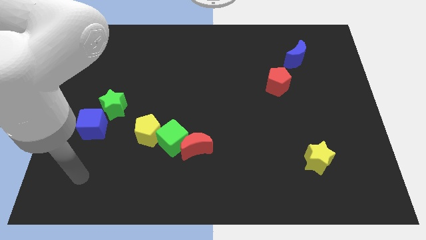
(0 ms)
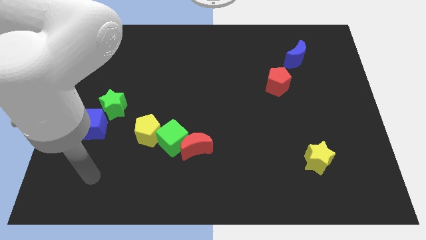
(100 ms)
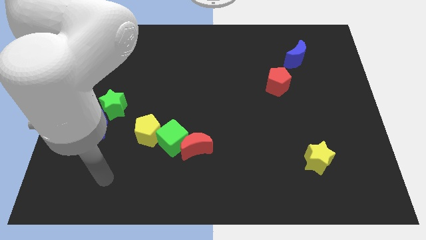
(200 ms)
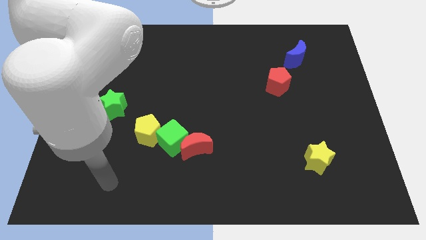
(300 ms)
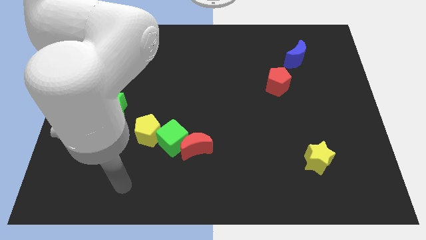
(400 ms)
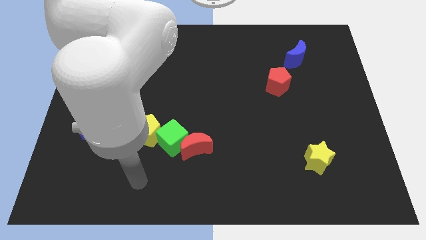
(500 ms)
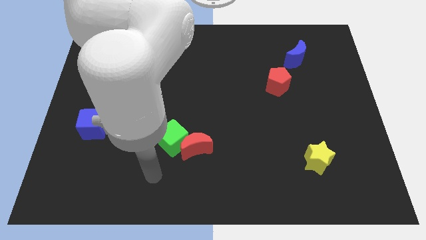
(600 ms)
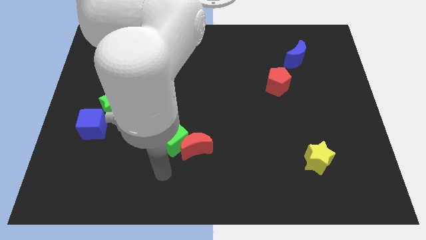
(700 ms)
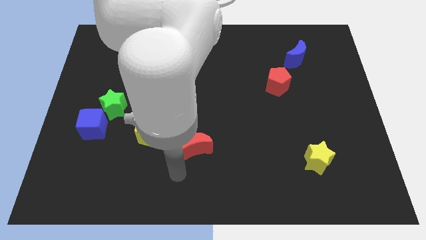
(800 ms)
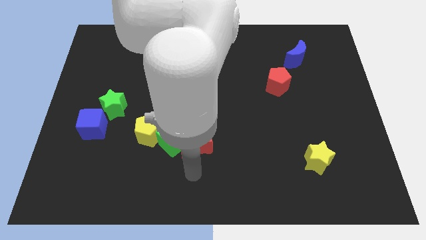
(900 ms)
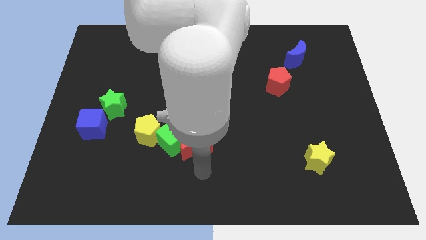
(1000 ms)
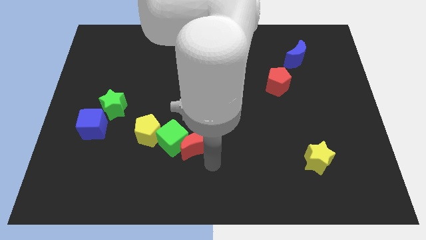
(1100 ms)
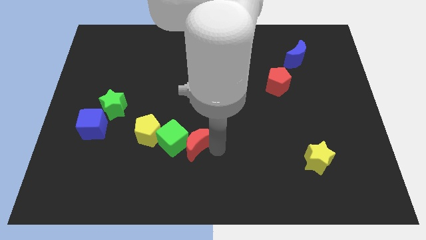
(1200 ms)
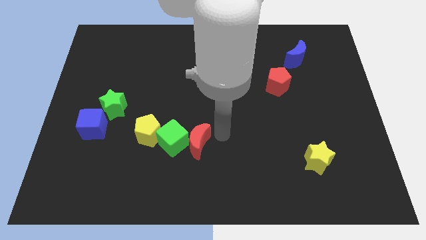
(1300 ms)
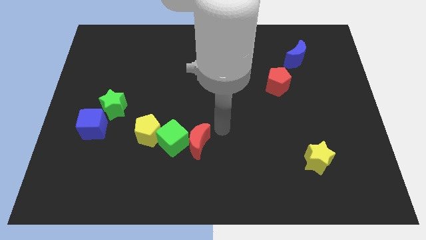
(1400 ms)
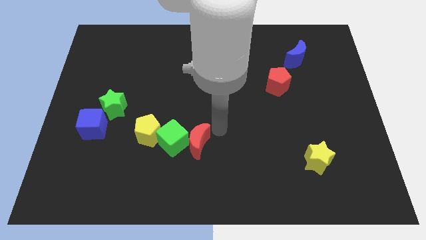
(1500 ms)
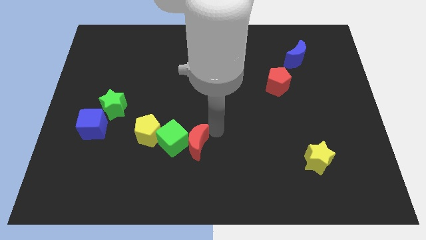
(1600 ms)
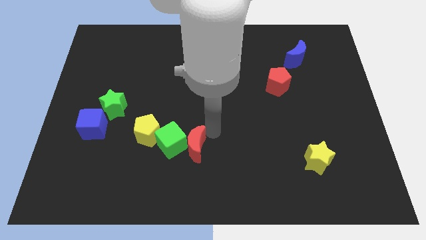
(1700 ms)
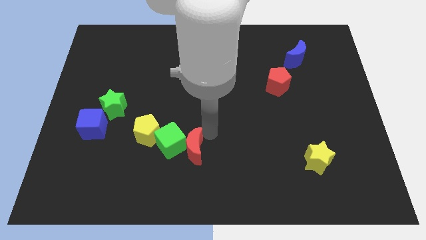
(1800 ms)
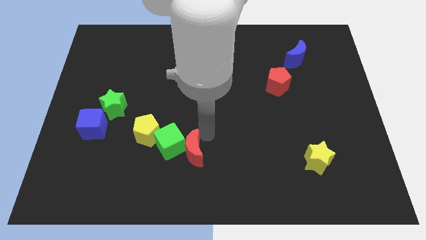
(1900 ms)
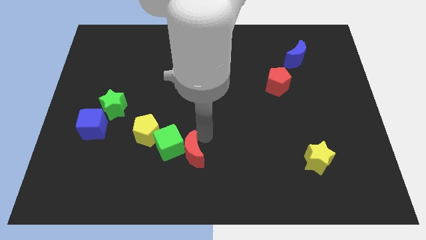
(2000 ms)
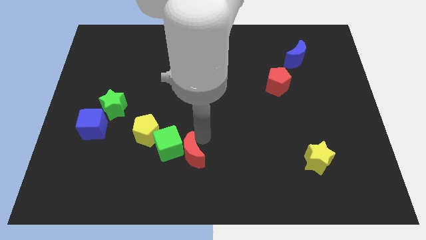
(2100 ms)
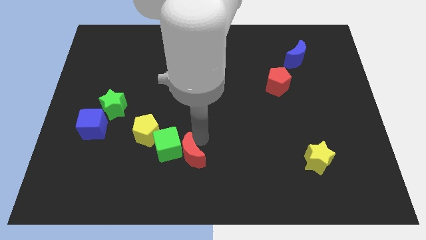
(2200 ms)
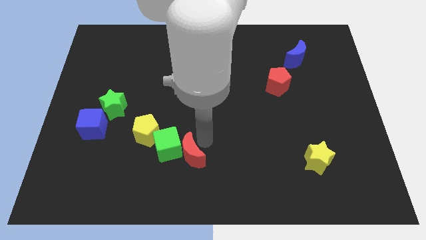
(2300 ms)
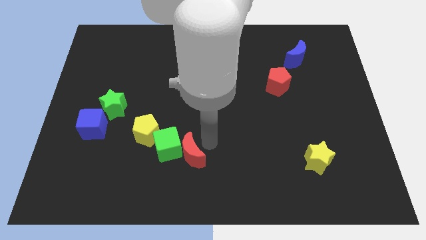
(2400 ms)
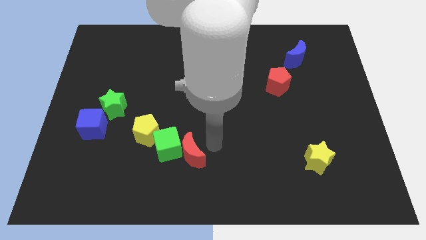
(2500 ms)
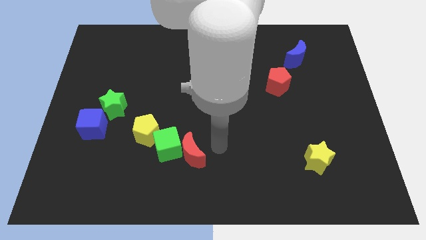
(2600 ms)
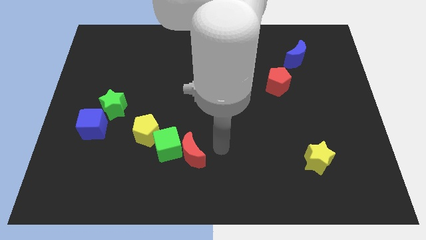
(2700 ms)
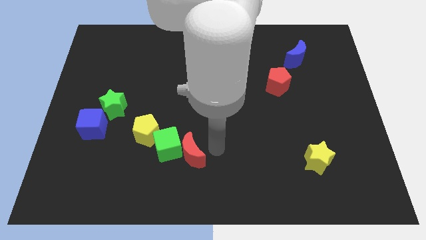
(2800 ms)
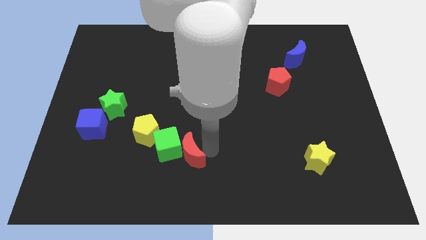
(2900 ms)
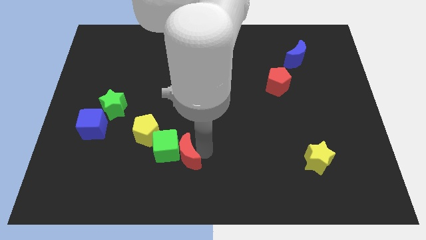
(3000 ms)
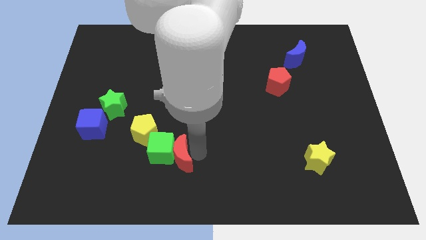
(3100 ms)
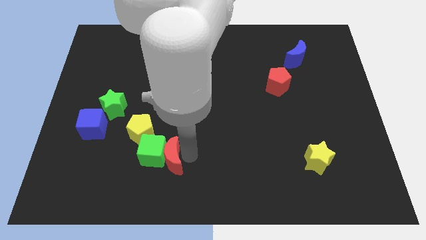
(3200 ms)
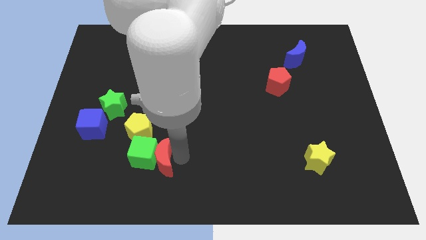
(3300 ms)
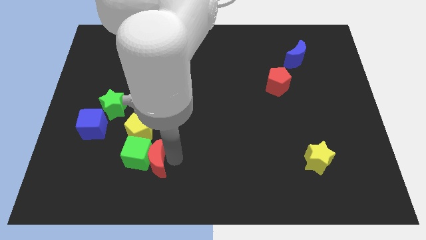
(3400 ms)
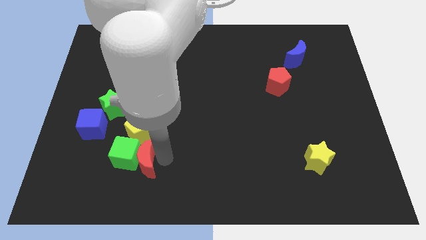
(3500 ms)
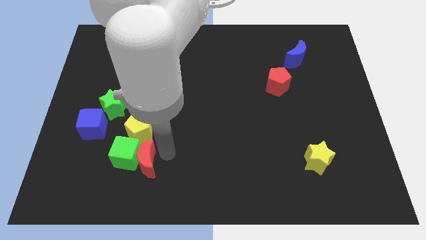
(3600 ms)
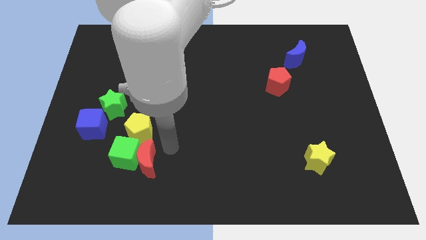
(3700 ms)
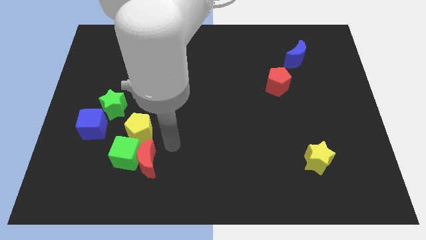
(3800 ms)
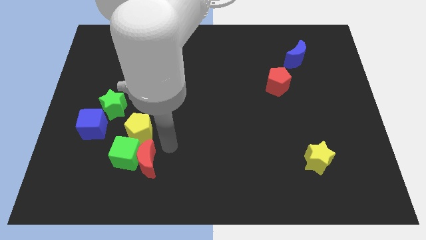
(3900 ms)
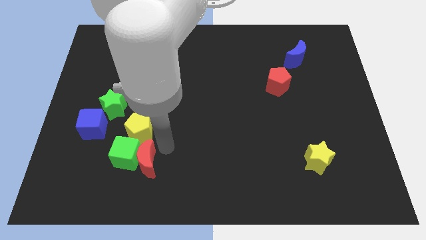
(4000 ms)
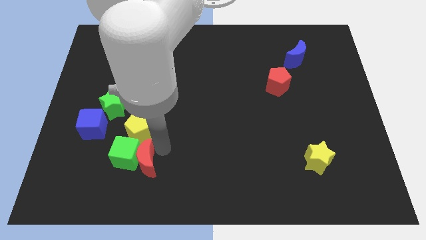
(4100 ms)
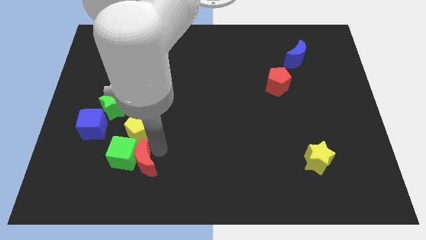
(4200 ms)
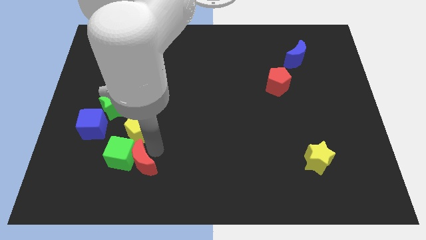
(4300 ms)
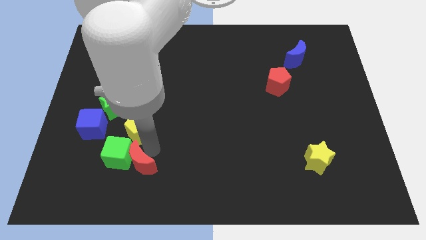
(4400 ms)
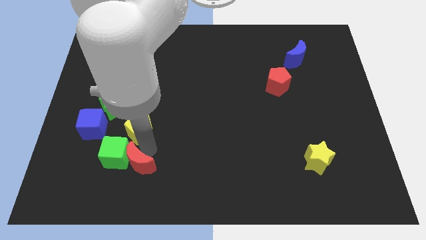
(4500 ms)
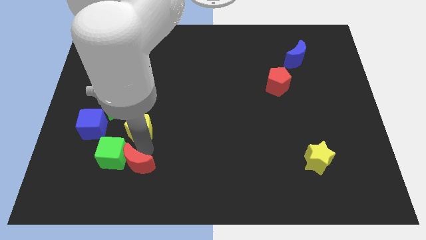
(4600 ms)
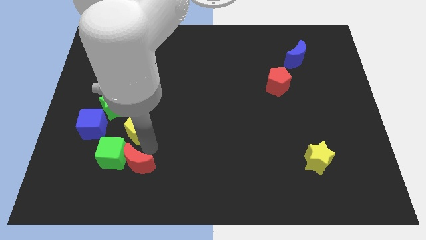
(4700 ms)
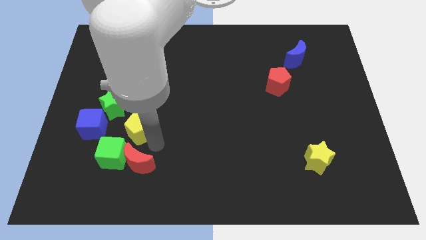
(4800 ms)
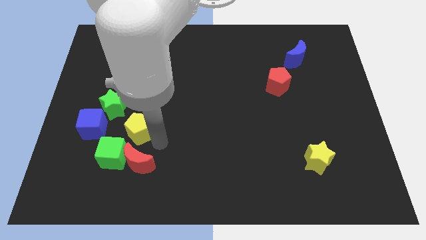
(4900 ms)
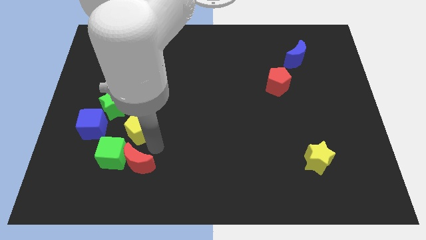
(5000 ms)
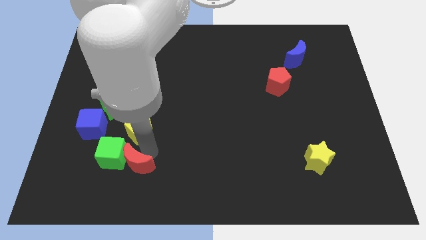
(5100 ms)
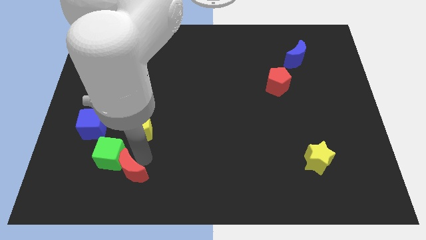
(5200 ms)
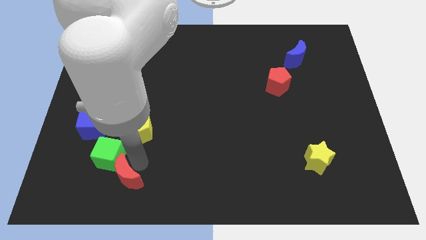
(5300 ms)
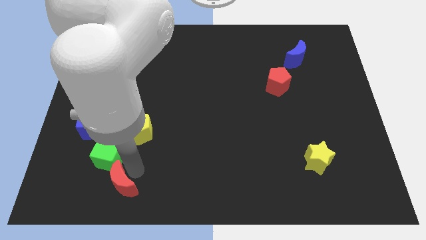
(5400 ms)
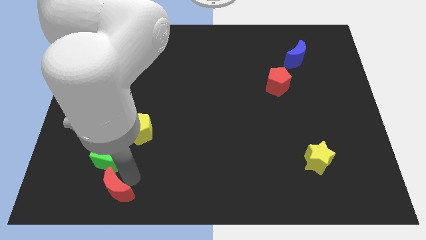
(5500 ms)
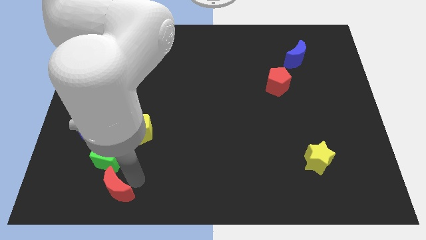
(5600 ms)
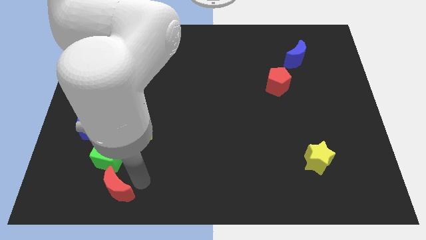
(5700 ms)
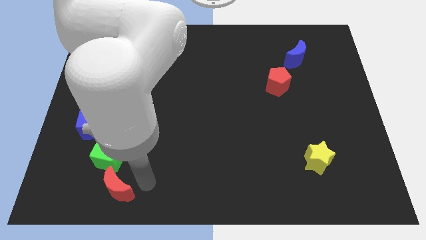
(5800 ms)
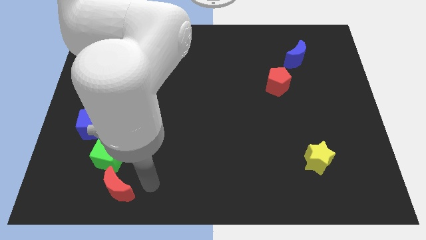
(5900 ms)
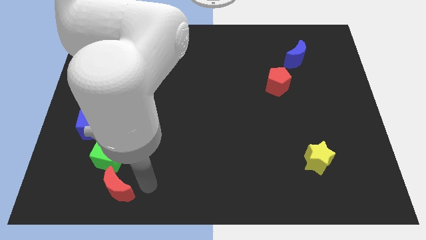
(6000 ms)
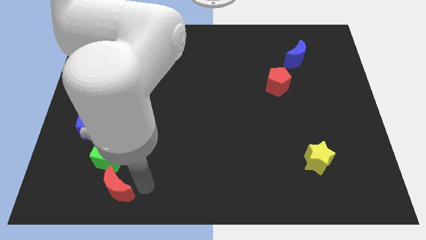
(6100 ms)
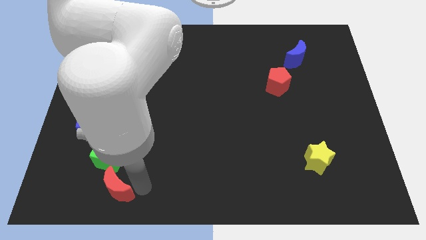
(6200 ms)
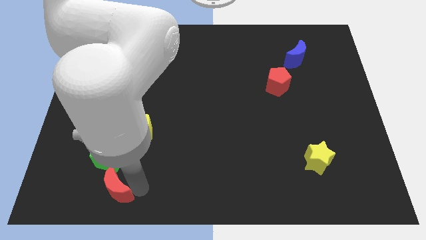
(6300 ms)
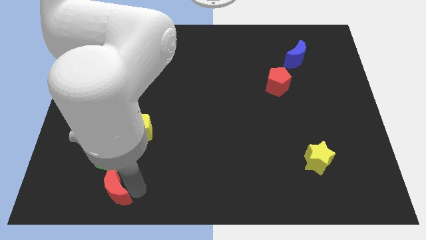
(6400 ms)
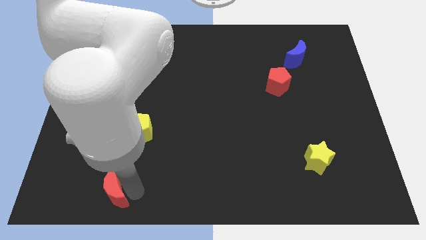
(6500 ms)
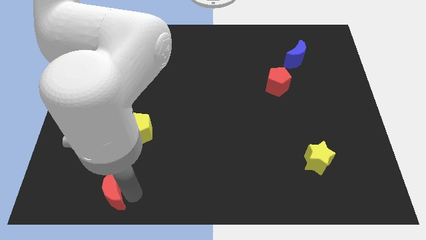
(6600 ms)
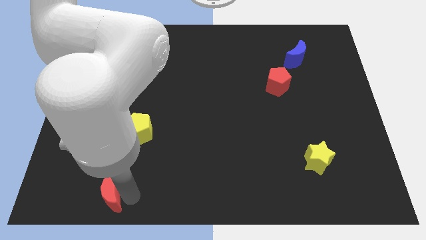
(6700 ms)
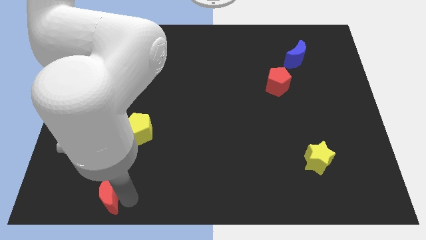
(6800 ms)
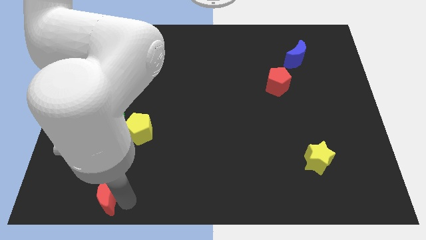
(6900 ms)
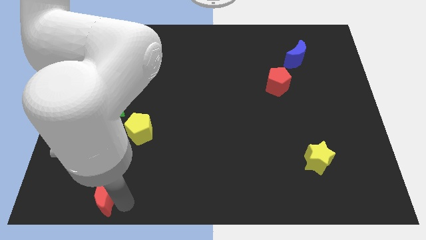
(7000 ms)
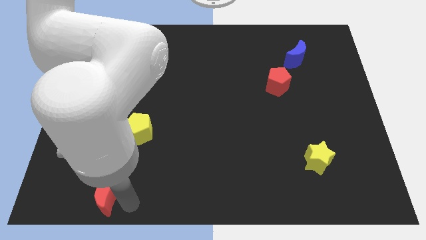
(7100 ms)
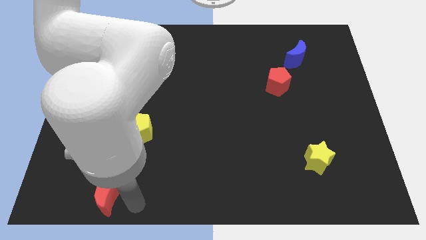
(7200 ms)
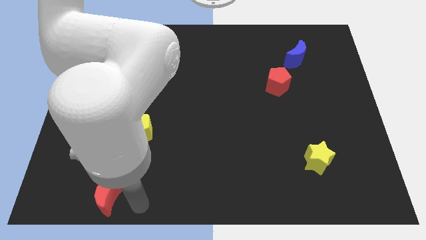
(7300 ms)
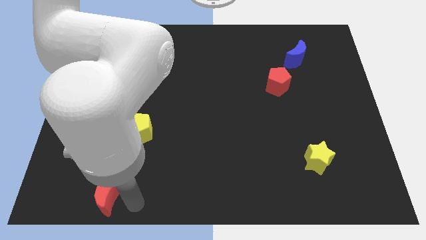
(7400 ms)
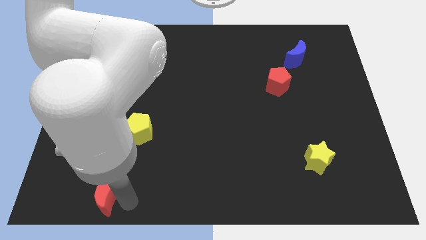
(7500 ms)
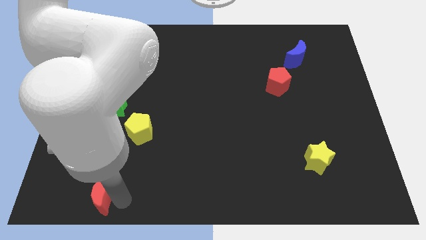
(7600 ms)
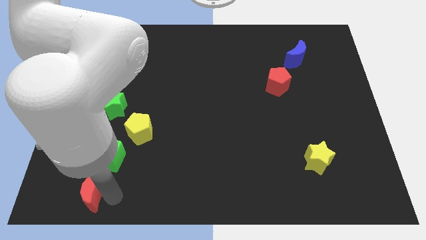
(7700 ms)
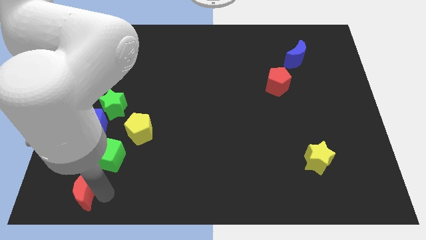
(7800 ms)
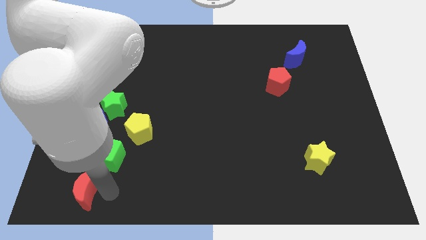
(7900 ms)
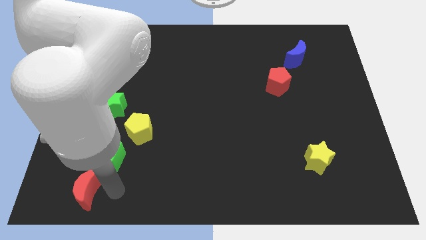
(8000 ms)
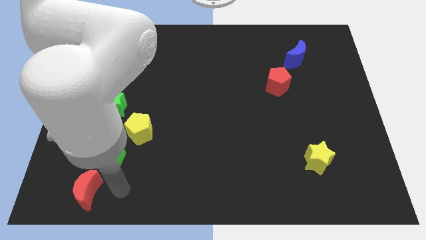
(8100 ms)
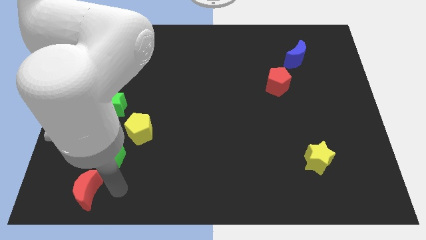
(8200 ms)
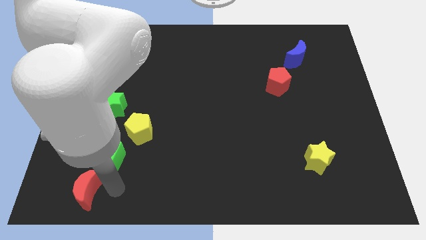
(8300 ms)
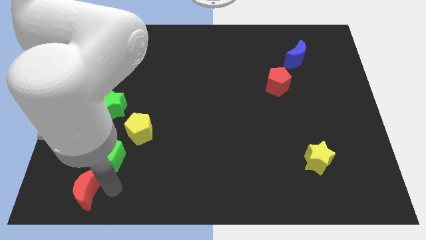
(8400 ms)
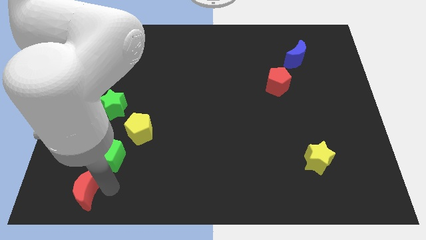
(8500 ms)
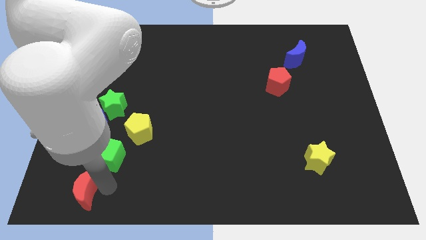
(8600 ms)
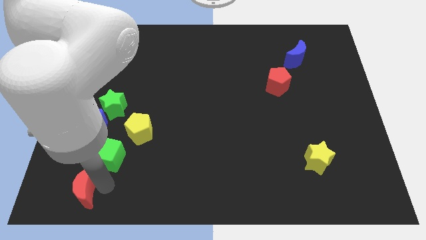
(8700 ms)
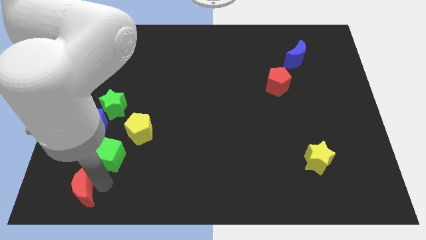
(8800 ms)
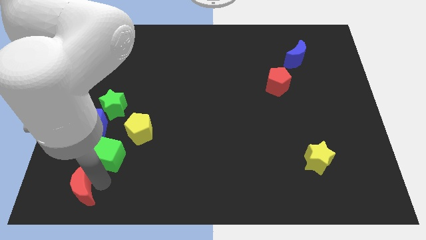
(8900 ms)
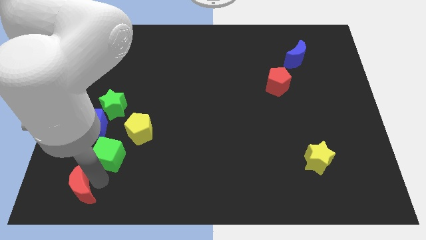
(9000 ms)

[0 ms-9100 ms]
move the red moon to the lower left corner
